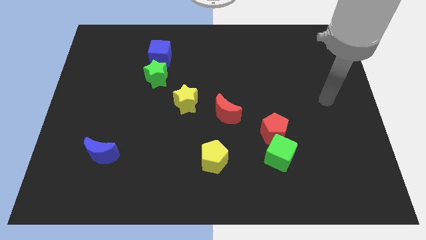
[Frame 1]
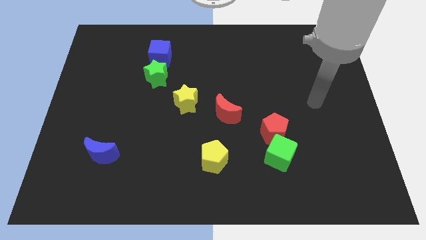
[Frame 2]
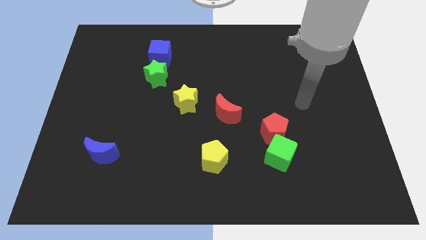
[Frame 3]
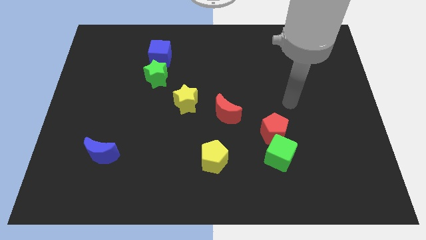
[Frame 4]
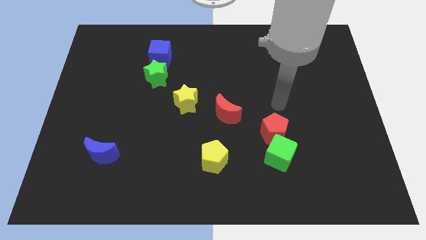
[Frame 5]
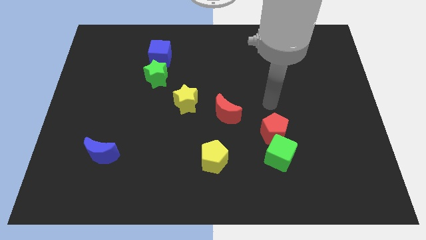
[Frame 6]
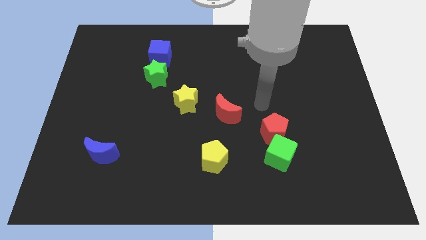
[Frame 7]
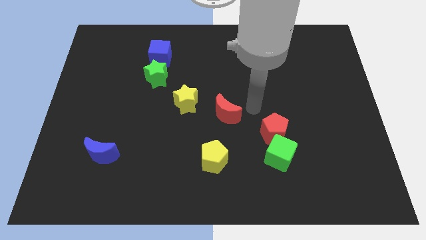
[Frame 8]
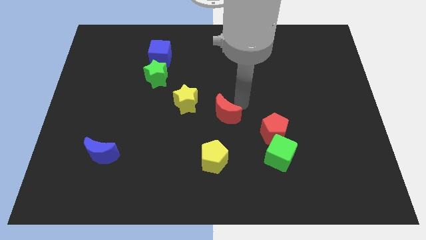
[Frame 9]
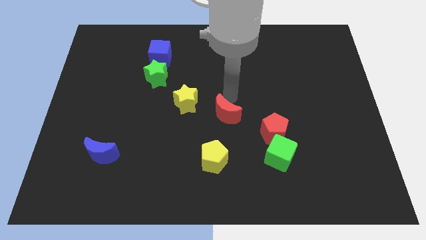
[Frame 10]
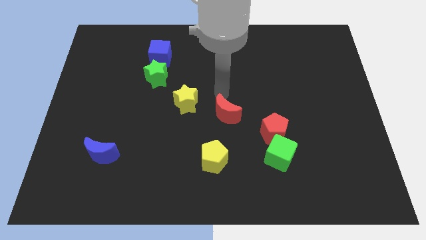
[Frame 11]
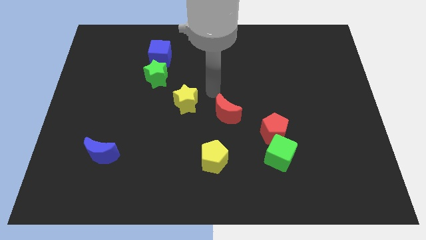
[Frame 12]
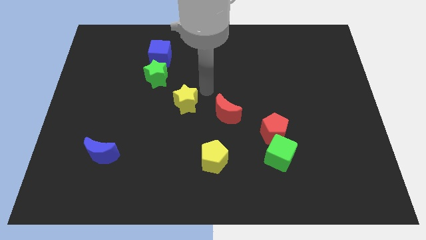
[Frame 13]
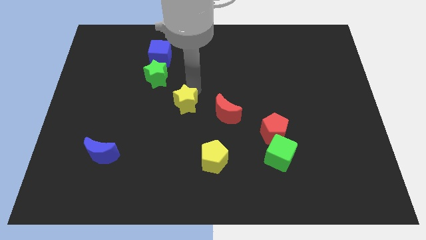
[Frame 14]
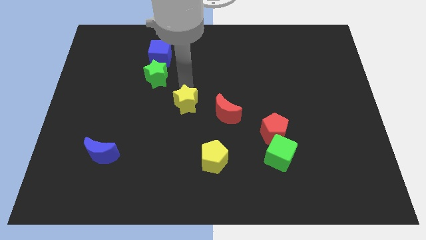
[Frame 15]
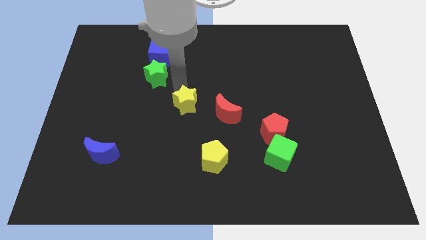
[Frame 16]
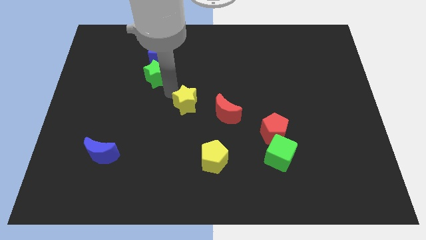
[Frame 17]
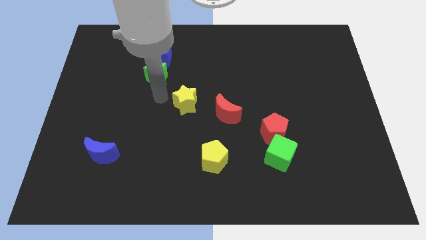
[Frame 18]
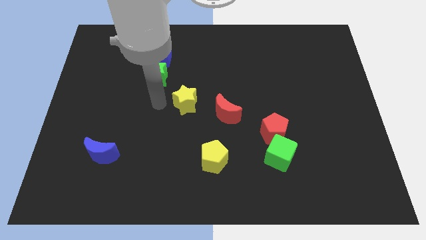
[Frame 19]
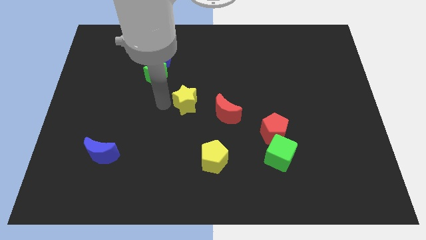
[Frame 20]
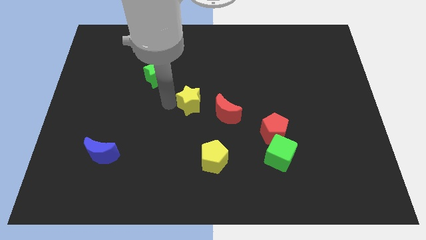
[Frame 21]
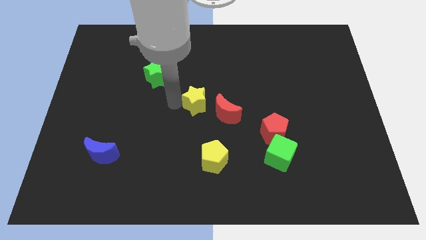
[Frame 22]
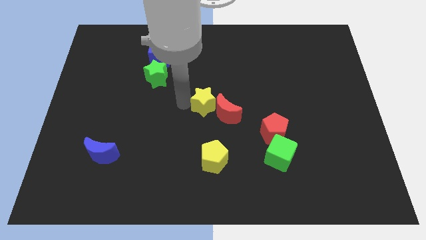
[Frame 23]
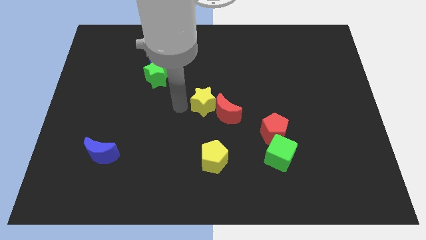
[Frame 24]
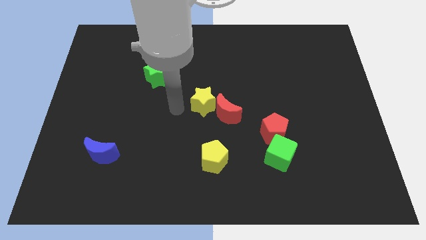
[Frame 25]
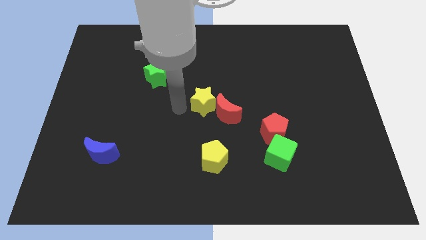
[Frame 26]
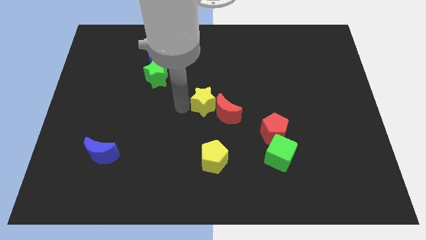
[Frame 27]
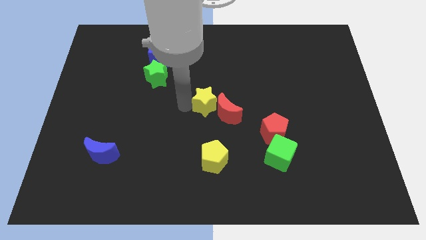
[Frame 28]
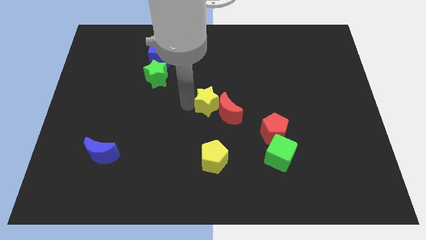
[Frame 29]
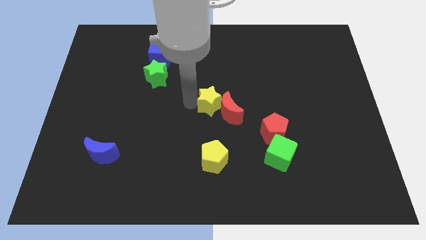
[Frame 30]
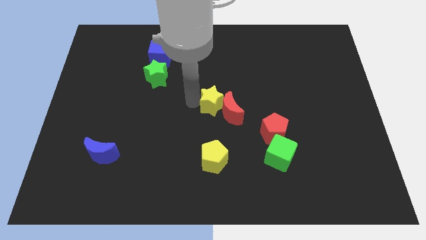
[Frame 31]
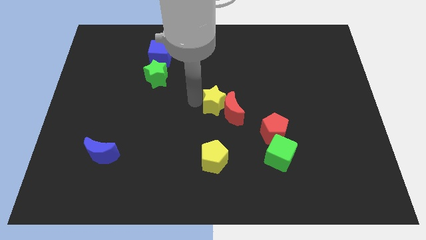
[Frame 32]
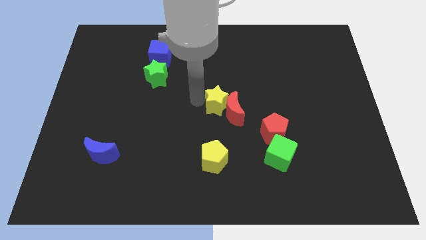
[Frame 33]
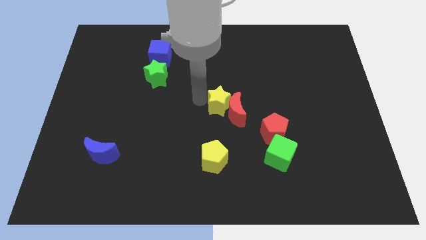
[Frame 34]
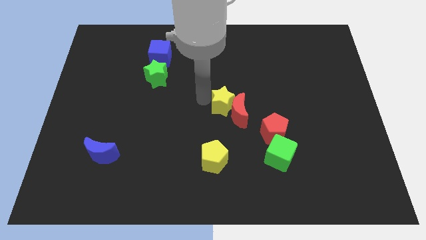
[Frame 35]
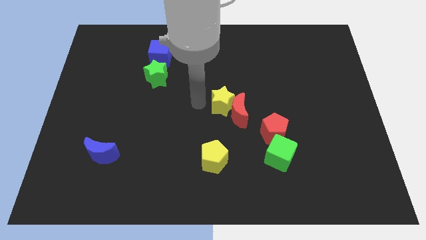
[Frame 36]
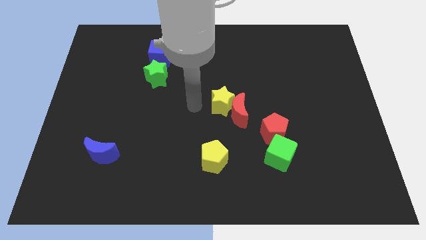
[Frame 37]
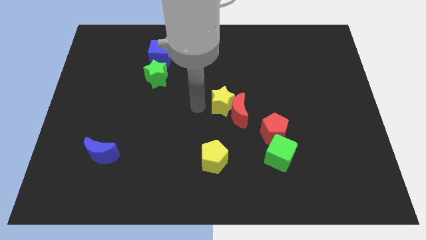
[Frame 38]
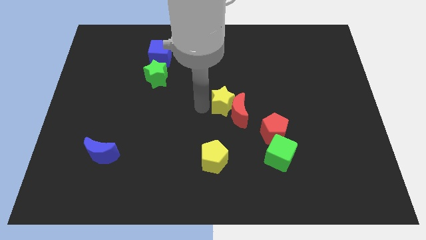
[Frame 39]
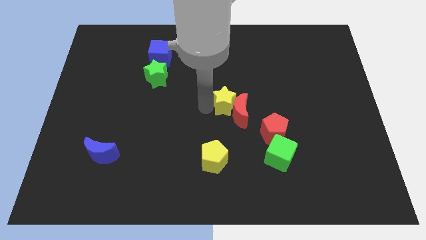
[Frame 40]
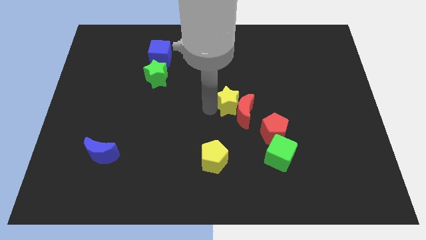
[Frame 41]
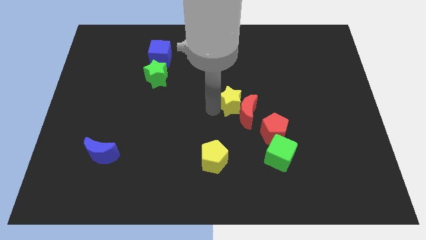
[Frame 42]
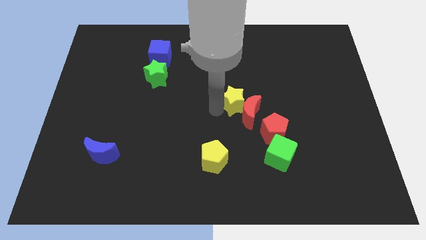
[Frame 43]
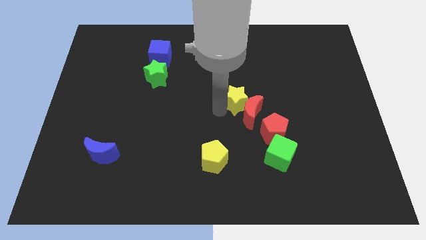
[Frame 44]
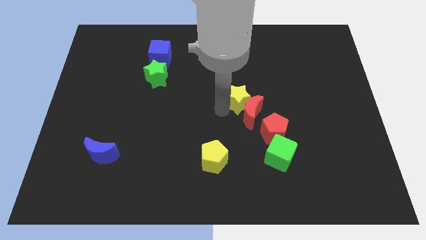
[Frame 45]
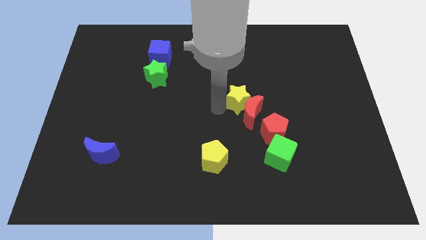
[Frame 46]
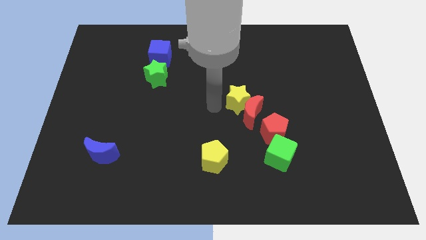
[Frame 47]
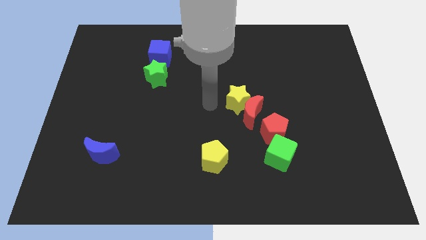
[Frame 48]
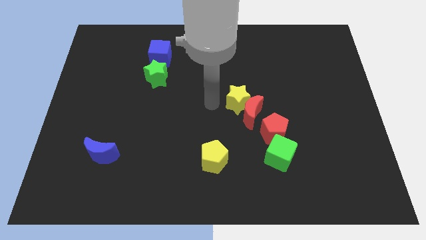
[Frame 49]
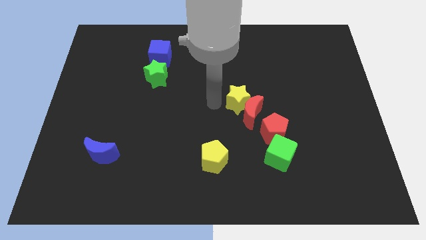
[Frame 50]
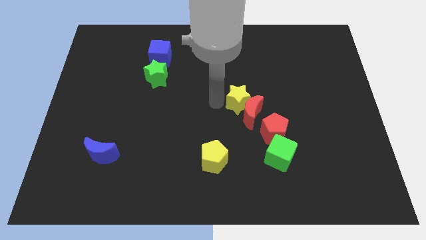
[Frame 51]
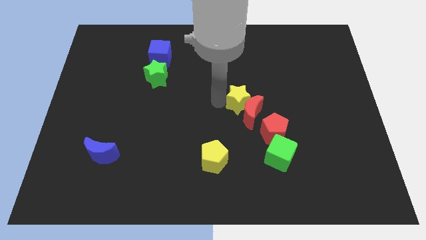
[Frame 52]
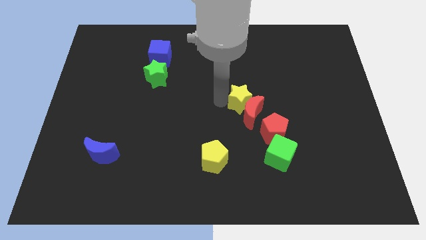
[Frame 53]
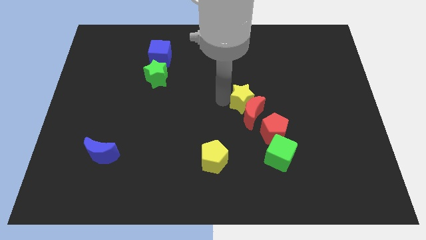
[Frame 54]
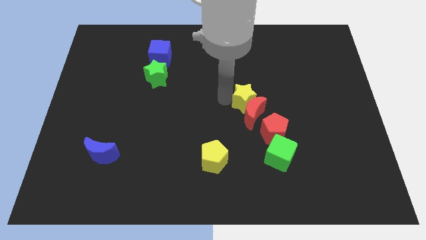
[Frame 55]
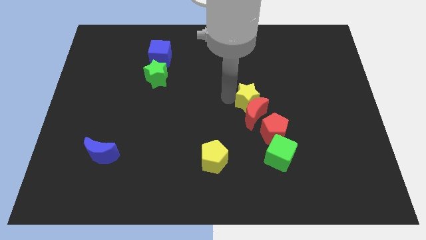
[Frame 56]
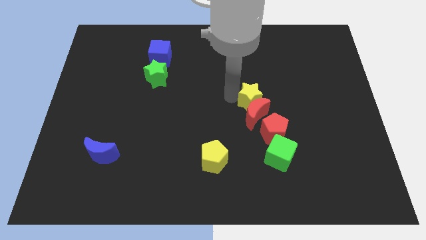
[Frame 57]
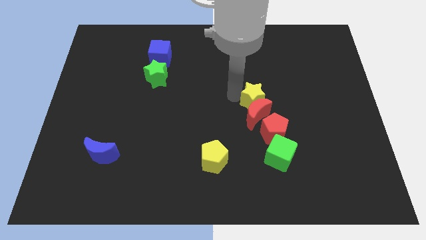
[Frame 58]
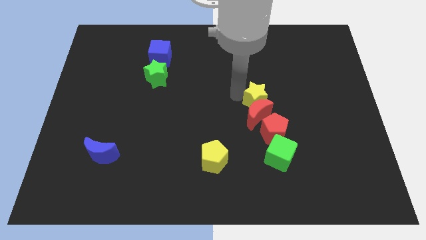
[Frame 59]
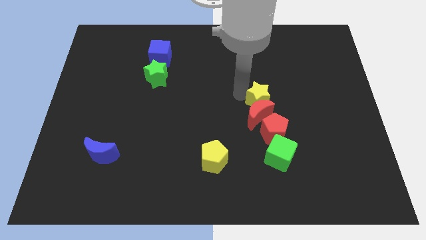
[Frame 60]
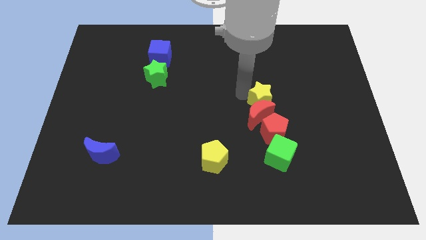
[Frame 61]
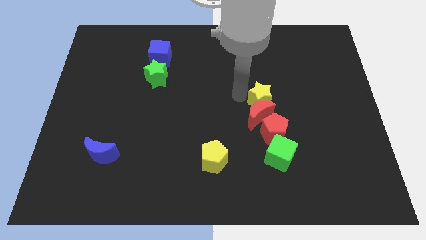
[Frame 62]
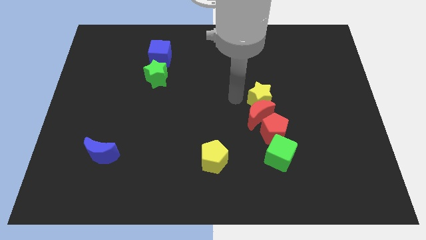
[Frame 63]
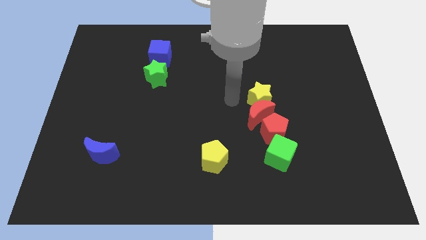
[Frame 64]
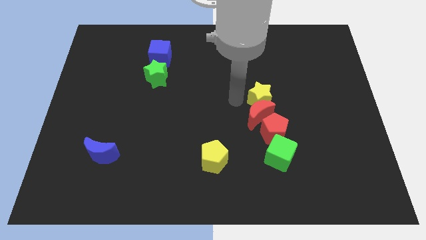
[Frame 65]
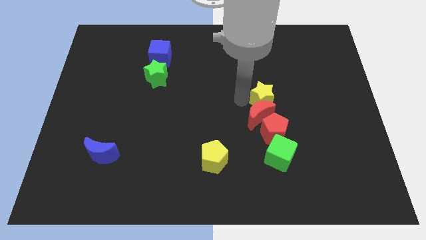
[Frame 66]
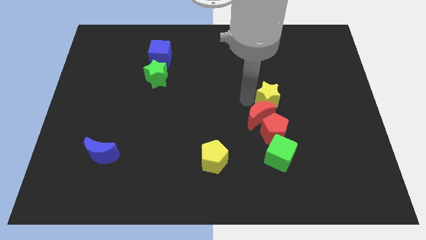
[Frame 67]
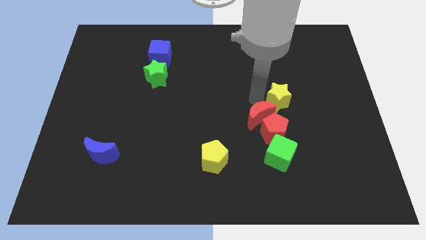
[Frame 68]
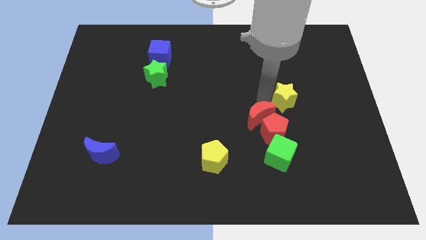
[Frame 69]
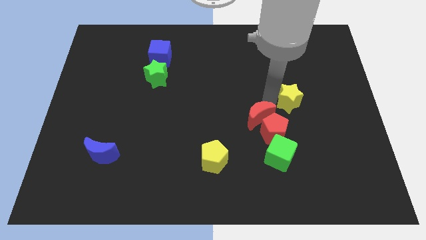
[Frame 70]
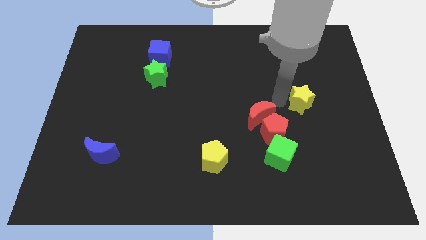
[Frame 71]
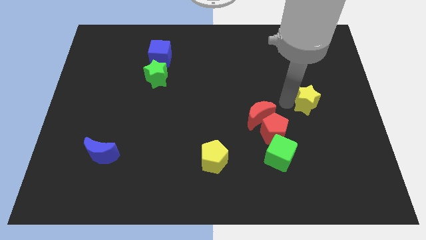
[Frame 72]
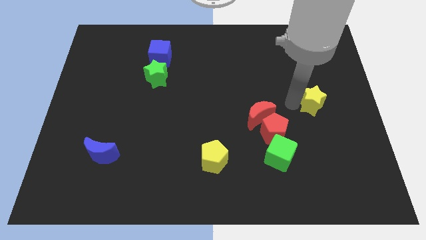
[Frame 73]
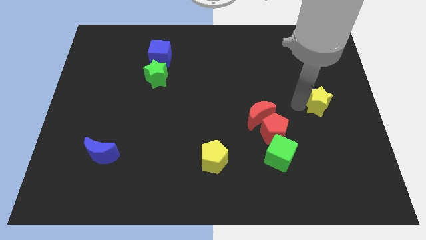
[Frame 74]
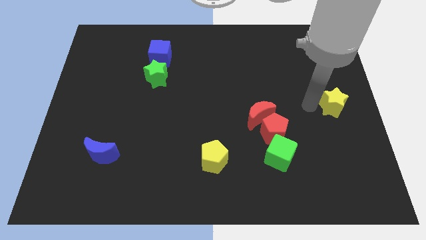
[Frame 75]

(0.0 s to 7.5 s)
slide the yellow star to the center right
